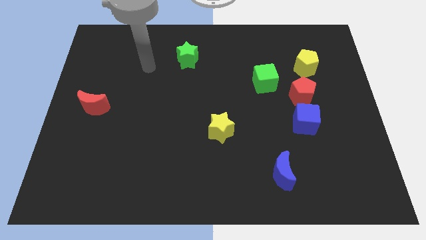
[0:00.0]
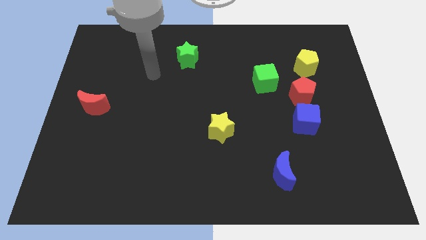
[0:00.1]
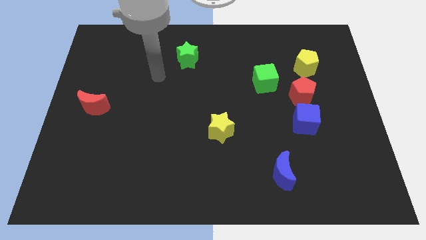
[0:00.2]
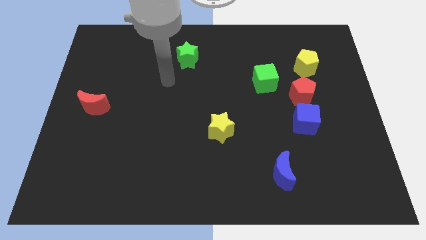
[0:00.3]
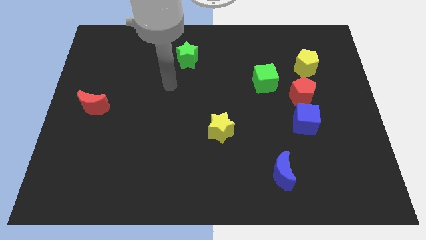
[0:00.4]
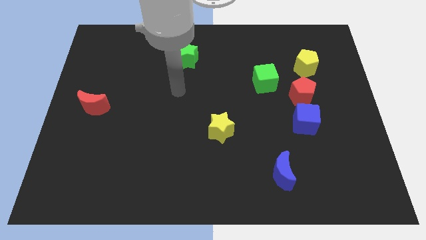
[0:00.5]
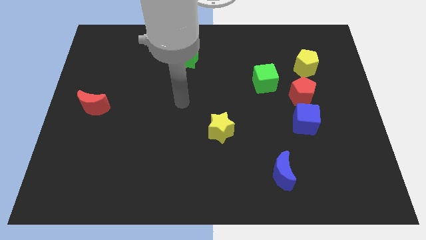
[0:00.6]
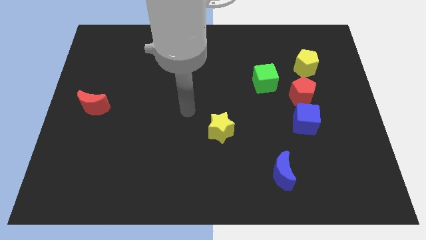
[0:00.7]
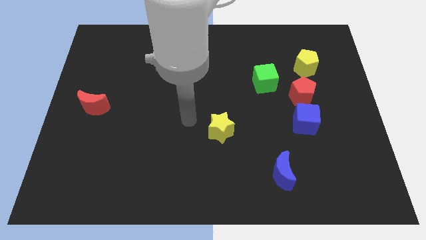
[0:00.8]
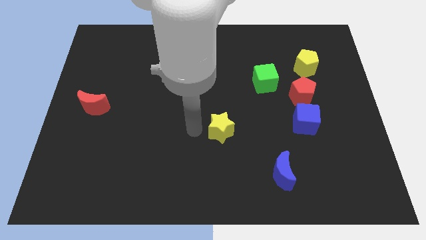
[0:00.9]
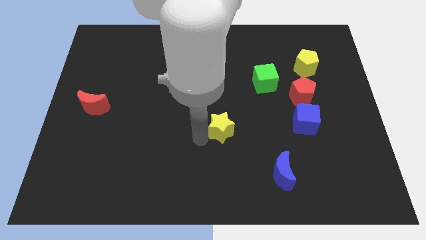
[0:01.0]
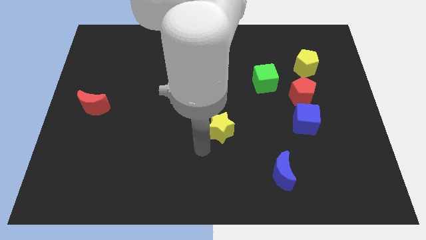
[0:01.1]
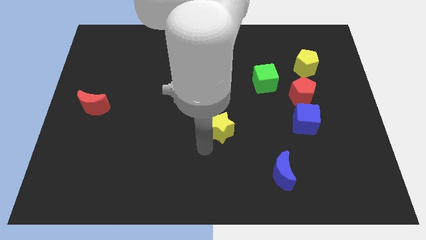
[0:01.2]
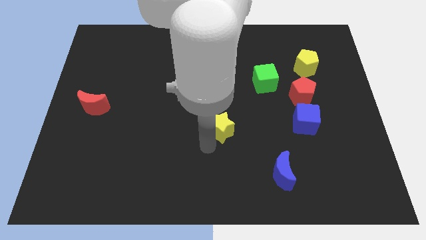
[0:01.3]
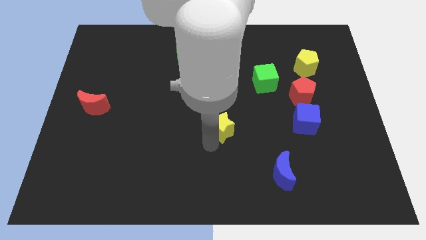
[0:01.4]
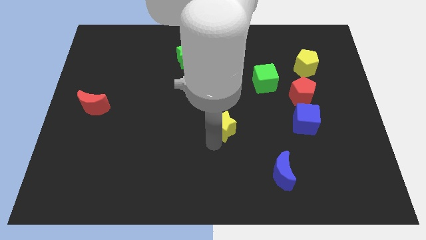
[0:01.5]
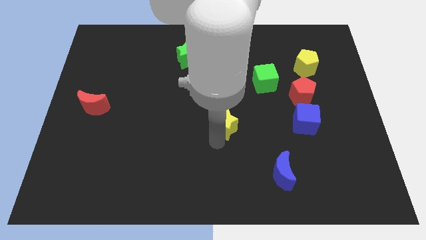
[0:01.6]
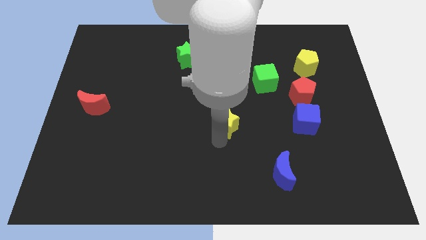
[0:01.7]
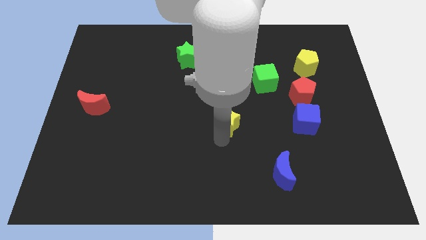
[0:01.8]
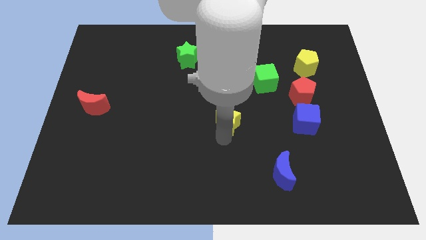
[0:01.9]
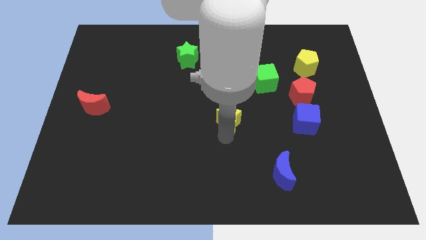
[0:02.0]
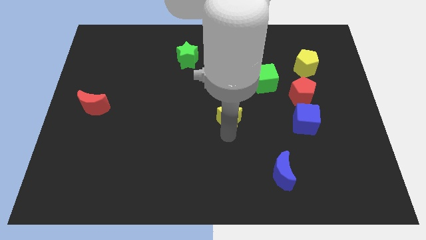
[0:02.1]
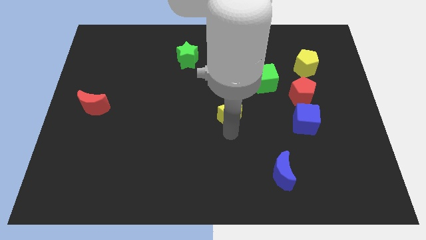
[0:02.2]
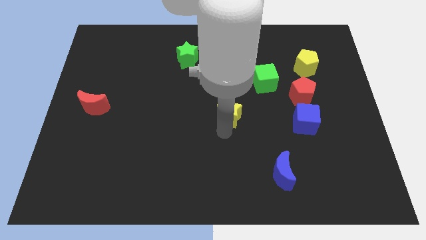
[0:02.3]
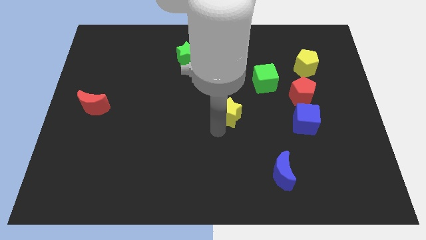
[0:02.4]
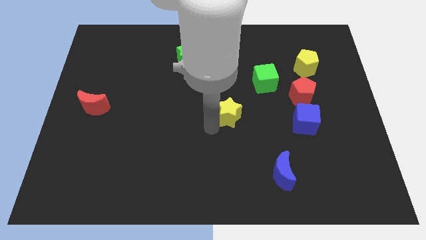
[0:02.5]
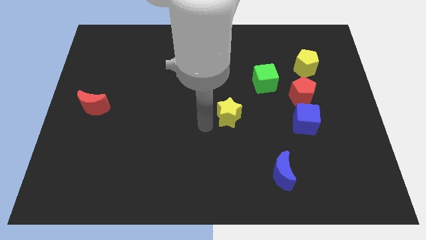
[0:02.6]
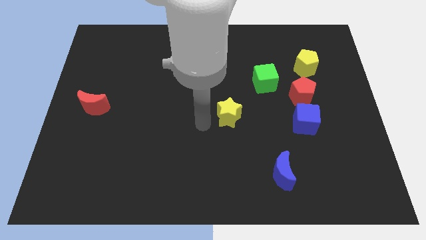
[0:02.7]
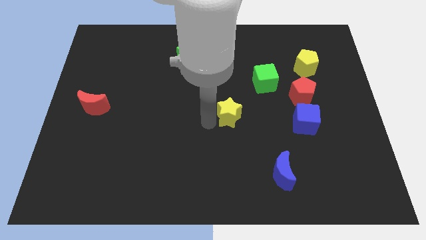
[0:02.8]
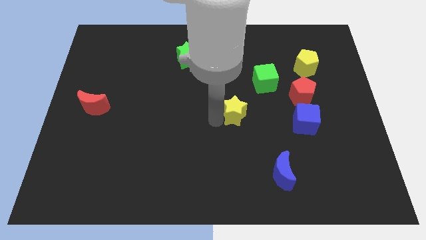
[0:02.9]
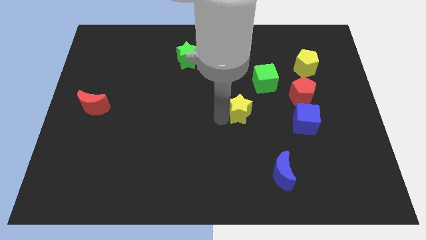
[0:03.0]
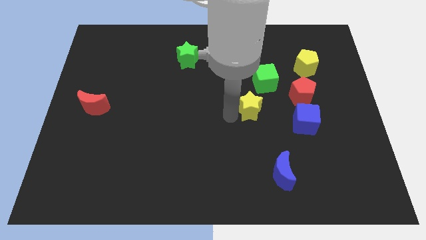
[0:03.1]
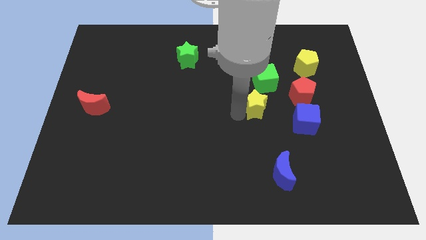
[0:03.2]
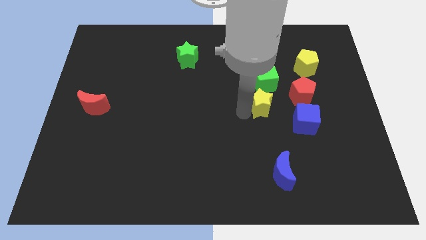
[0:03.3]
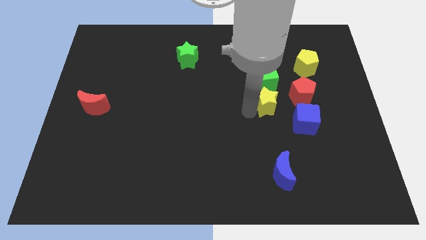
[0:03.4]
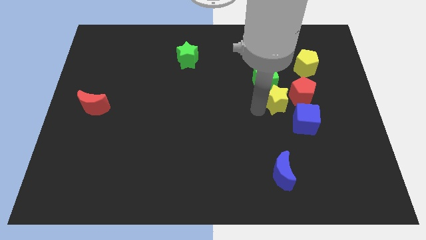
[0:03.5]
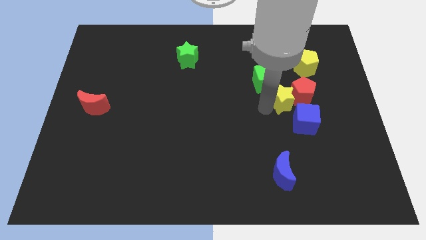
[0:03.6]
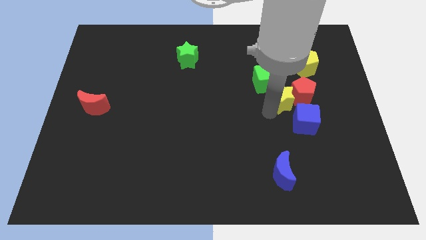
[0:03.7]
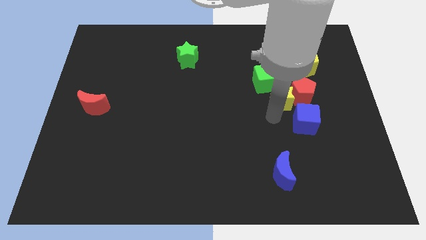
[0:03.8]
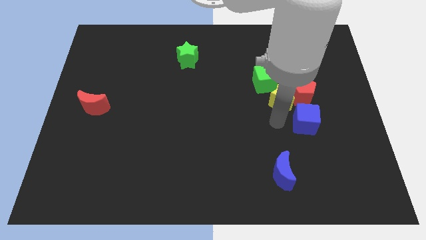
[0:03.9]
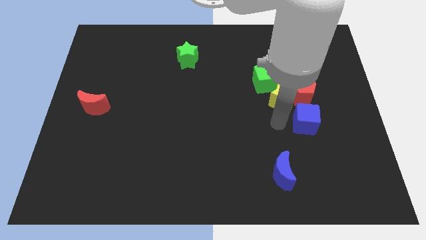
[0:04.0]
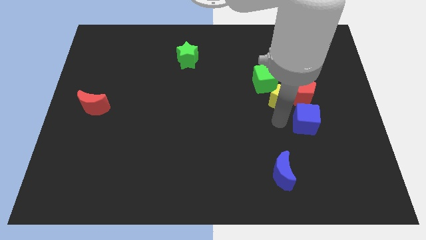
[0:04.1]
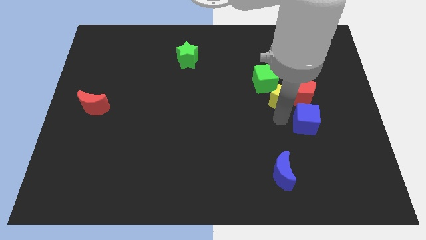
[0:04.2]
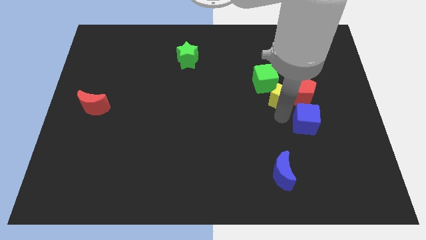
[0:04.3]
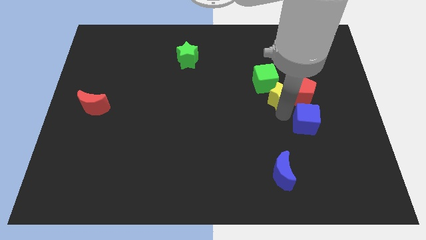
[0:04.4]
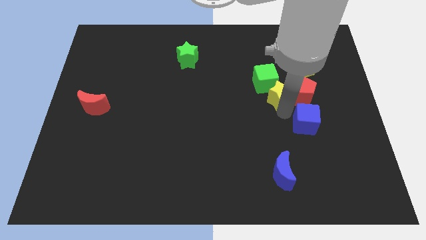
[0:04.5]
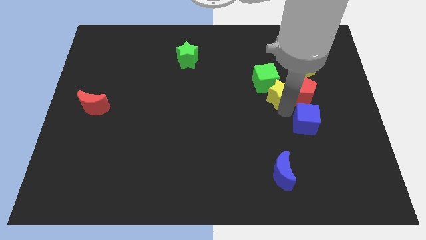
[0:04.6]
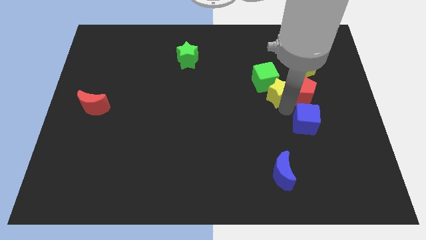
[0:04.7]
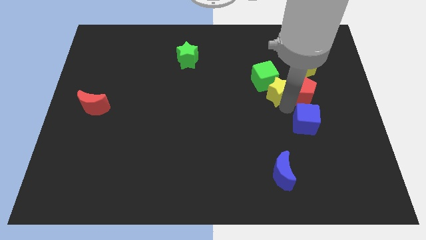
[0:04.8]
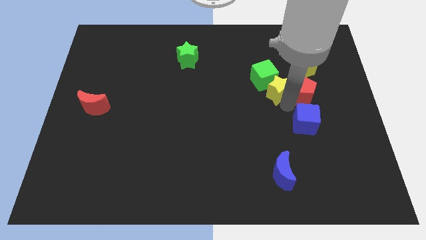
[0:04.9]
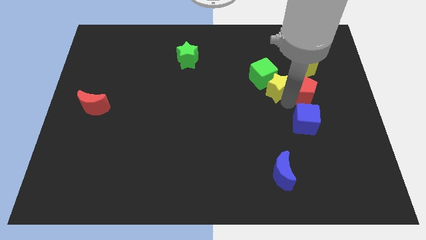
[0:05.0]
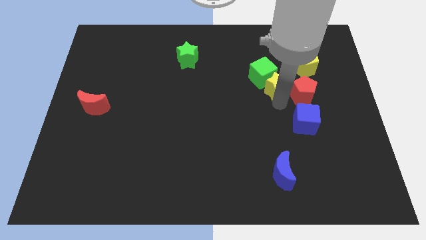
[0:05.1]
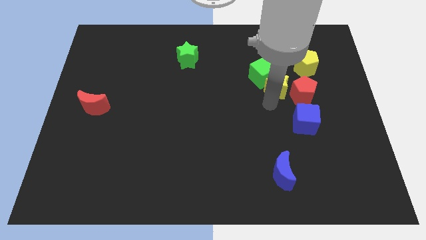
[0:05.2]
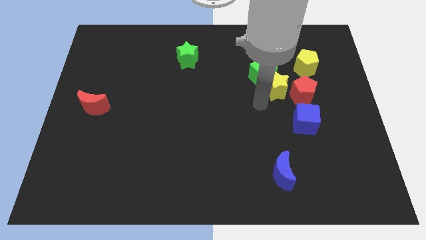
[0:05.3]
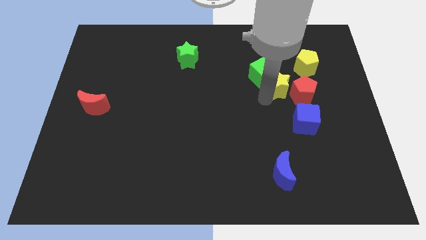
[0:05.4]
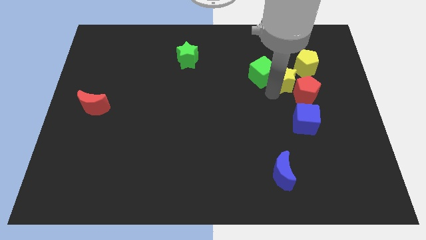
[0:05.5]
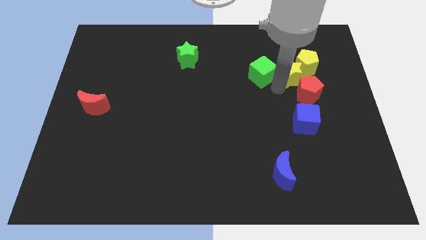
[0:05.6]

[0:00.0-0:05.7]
push the yellow star close to the yellow pentagon

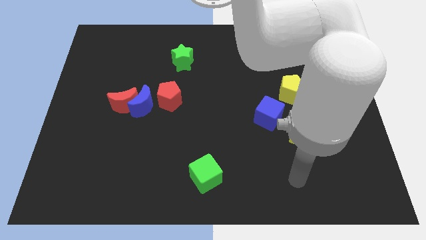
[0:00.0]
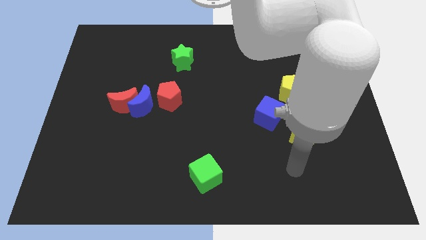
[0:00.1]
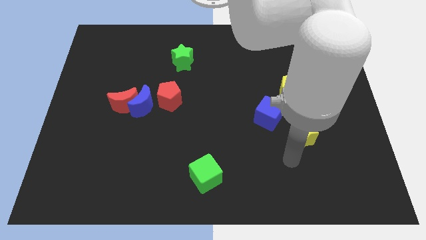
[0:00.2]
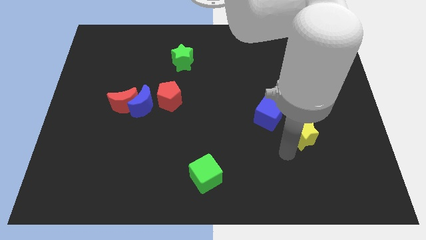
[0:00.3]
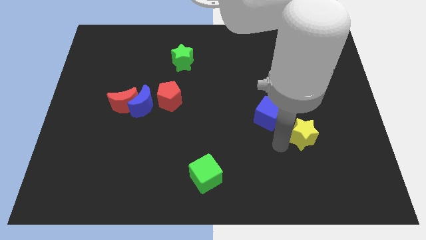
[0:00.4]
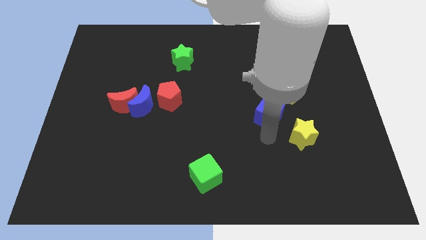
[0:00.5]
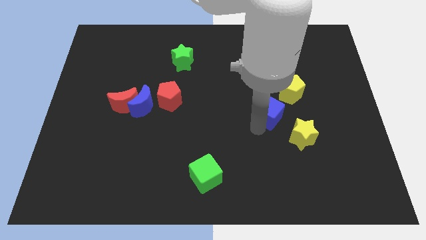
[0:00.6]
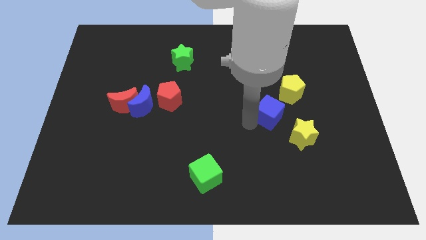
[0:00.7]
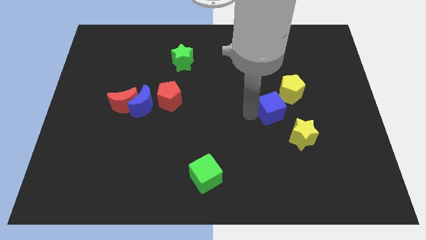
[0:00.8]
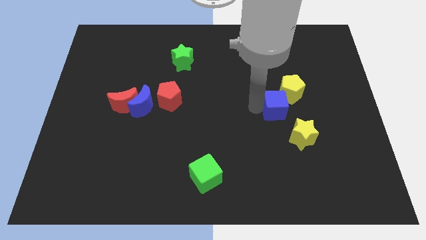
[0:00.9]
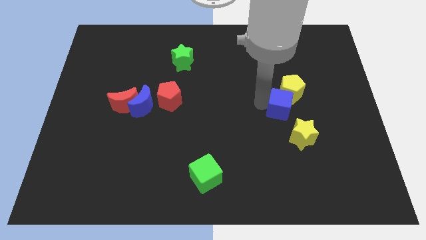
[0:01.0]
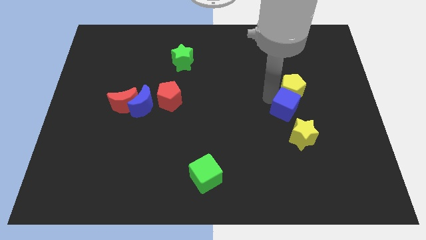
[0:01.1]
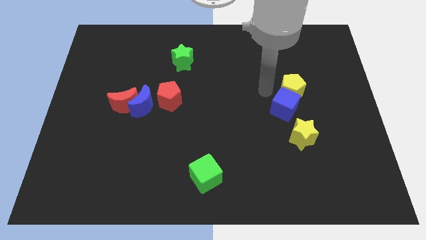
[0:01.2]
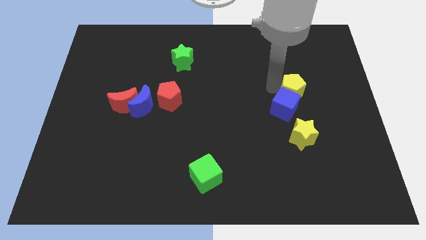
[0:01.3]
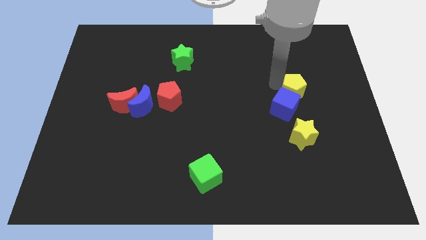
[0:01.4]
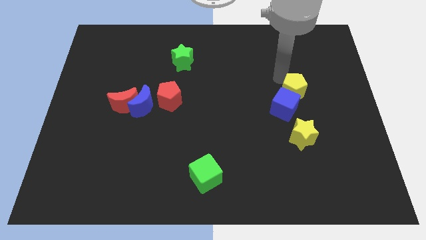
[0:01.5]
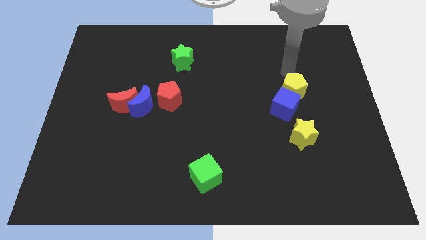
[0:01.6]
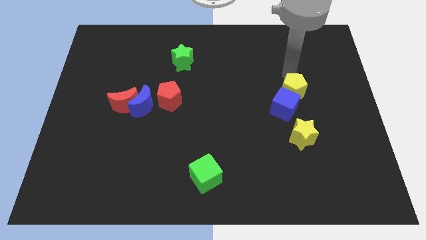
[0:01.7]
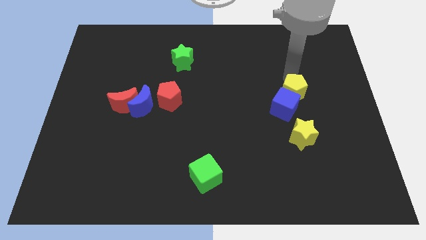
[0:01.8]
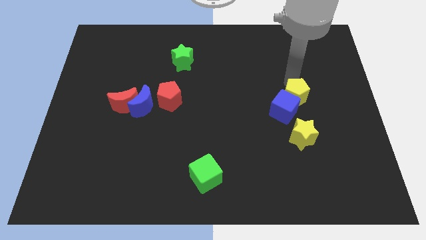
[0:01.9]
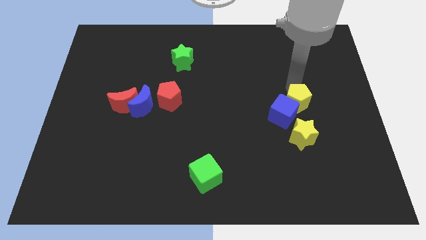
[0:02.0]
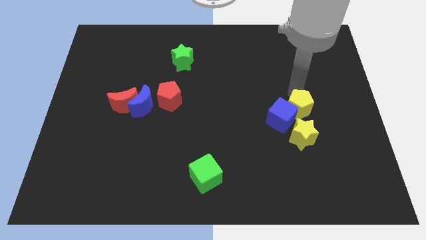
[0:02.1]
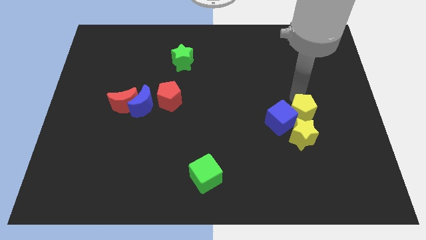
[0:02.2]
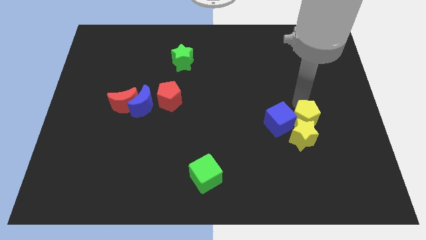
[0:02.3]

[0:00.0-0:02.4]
move the yellow pentagon next to the yellow star

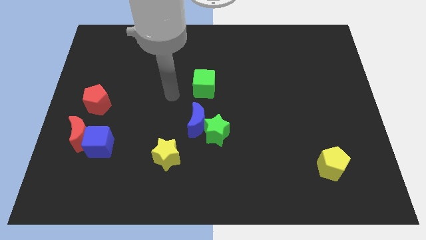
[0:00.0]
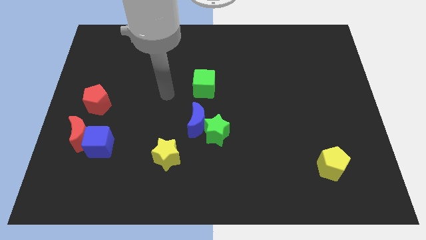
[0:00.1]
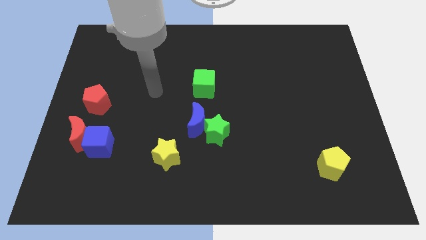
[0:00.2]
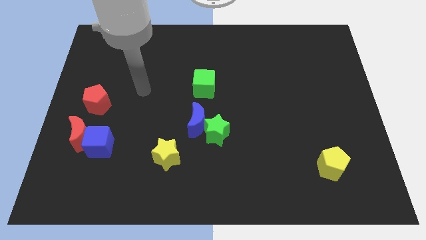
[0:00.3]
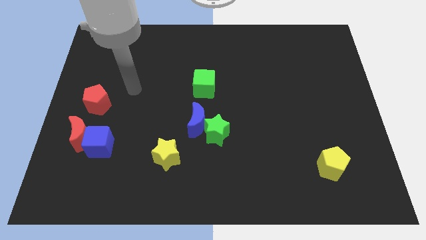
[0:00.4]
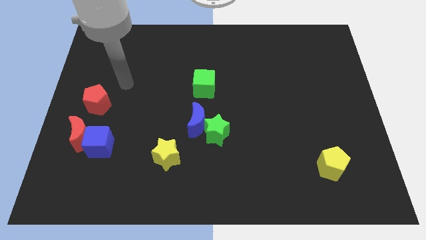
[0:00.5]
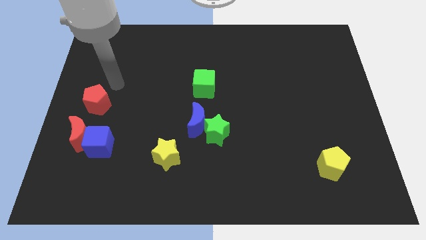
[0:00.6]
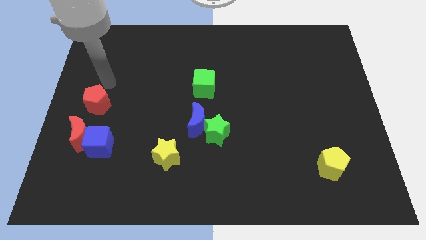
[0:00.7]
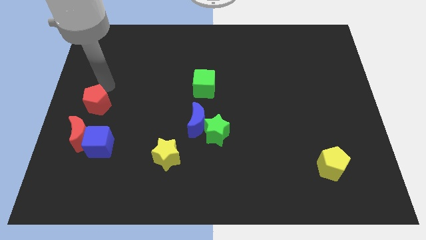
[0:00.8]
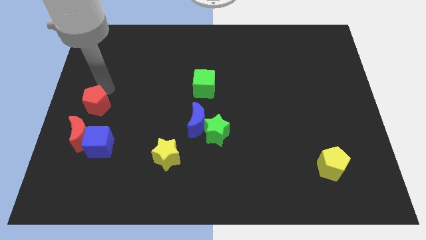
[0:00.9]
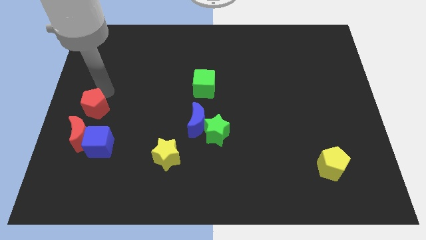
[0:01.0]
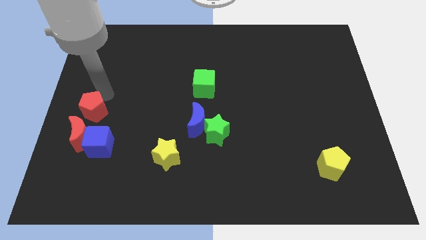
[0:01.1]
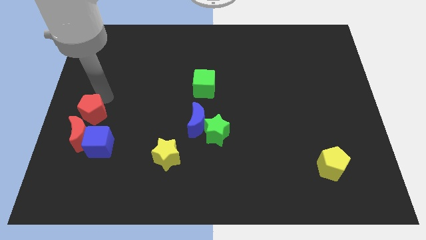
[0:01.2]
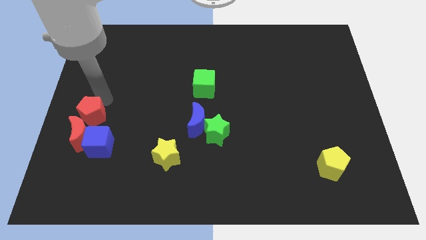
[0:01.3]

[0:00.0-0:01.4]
push the red pentagon to the red moon
